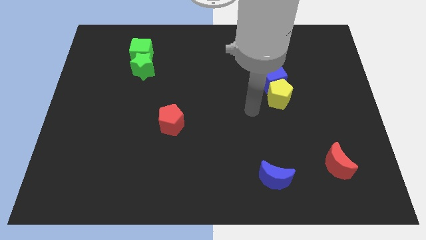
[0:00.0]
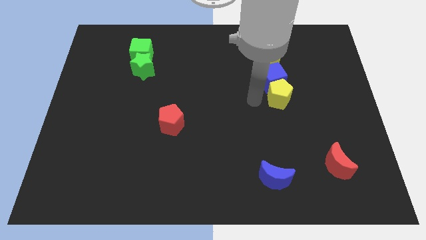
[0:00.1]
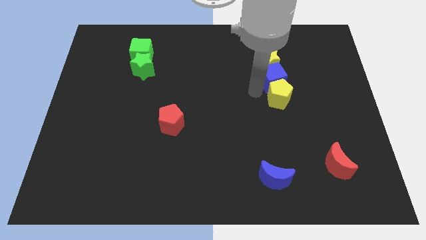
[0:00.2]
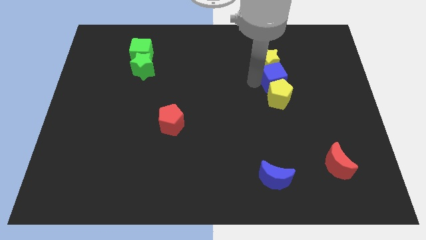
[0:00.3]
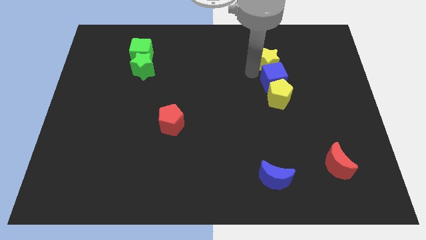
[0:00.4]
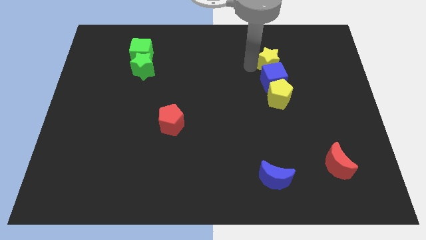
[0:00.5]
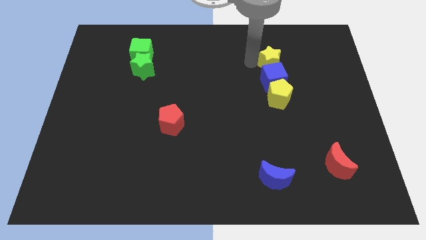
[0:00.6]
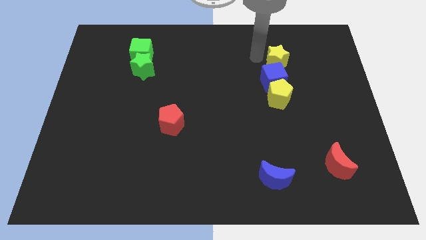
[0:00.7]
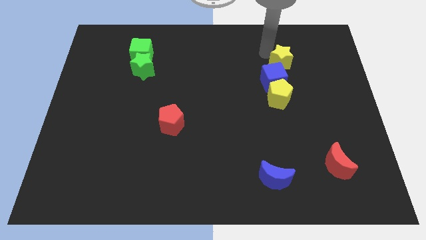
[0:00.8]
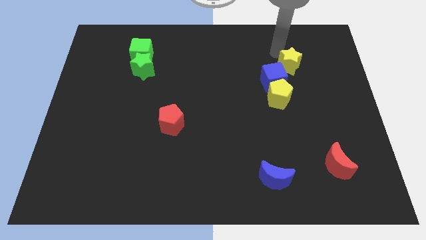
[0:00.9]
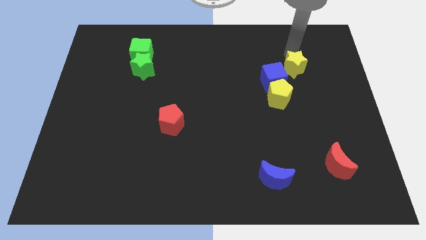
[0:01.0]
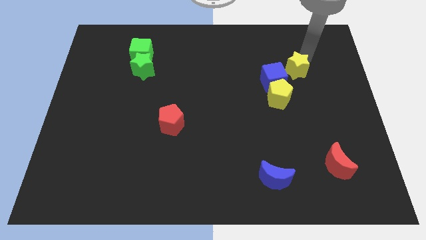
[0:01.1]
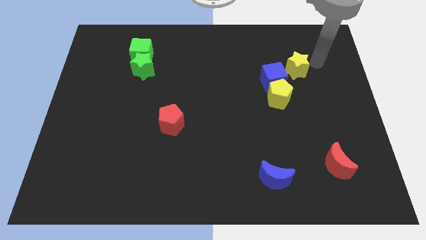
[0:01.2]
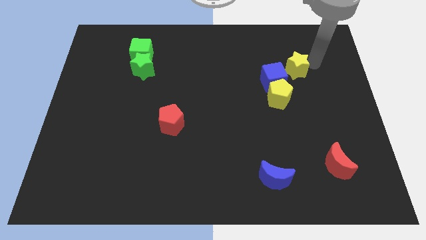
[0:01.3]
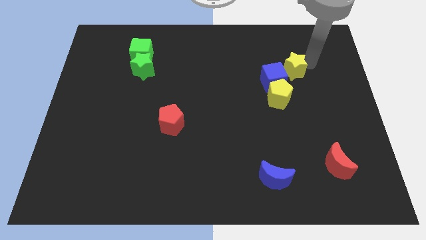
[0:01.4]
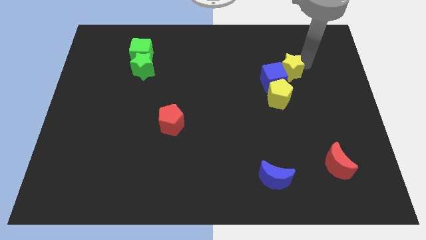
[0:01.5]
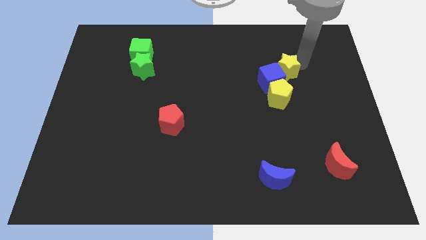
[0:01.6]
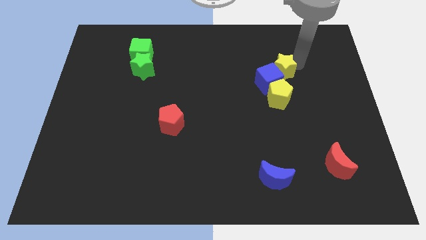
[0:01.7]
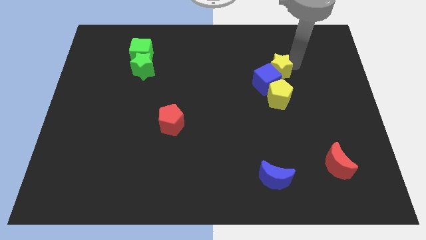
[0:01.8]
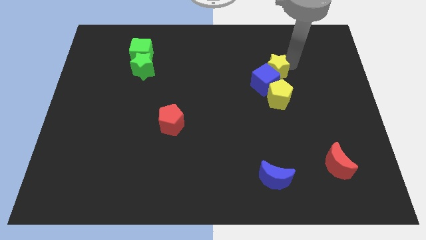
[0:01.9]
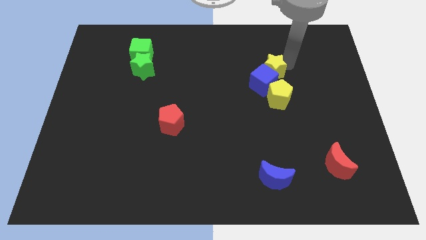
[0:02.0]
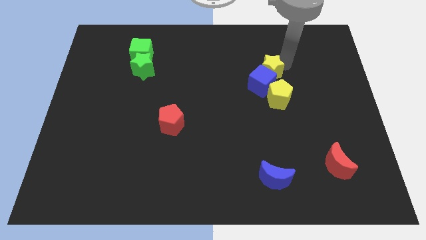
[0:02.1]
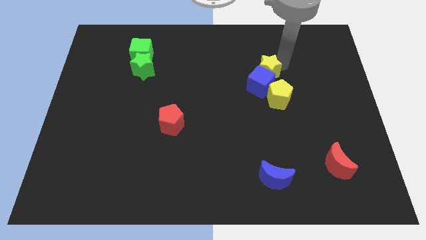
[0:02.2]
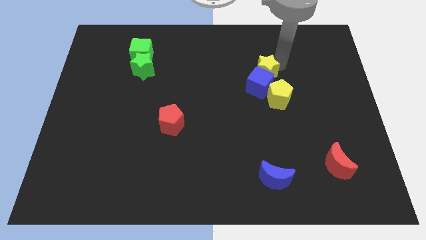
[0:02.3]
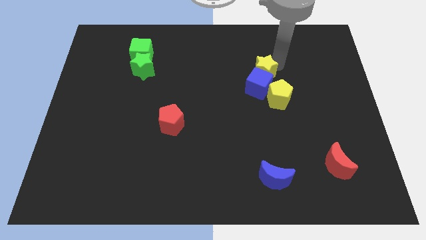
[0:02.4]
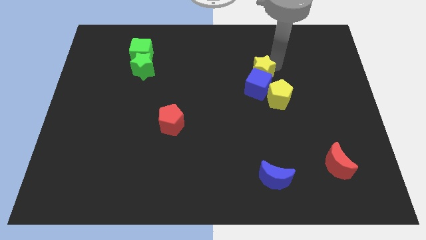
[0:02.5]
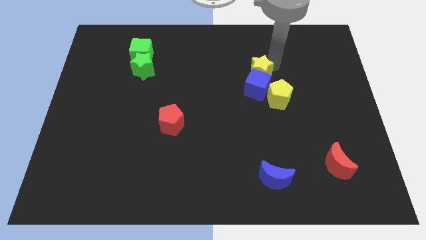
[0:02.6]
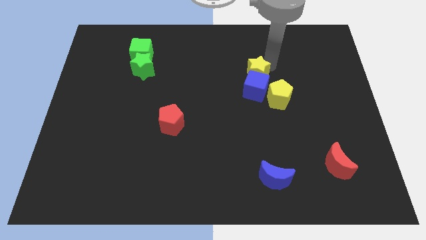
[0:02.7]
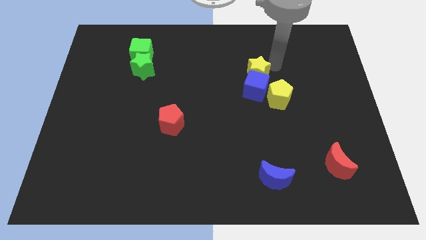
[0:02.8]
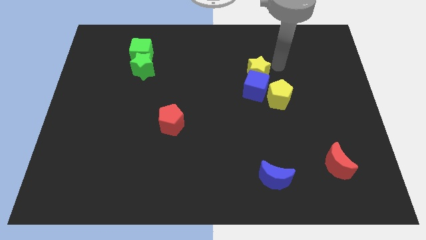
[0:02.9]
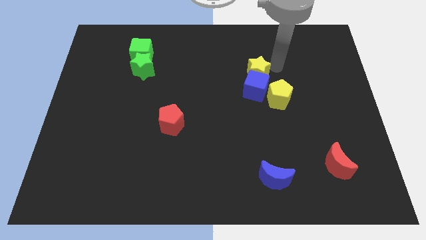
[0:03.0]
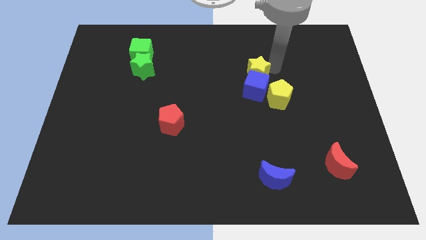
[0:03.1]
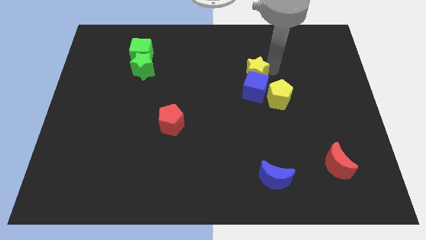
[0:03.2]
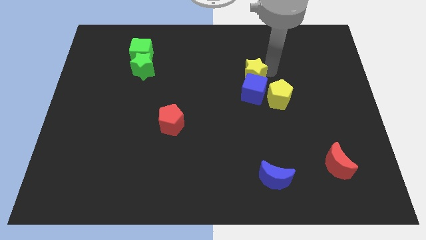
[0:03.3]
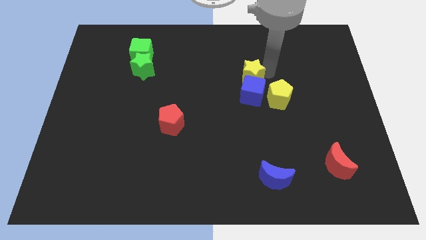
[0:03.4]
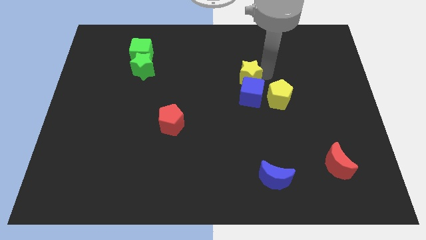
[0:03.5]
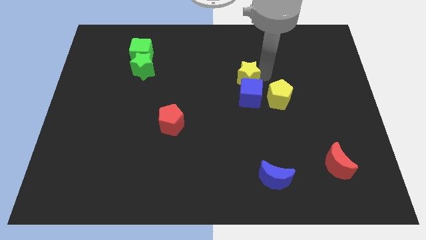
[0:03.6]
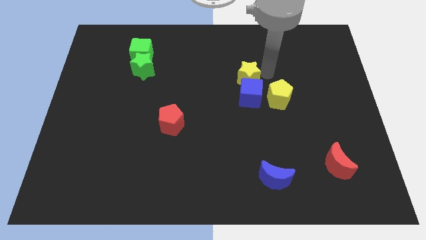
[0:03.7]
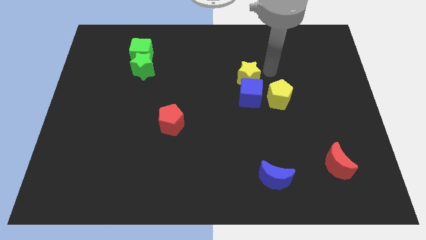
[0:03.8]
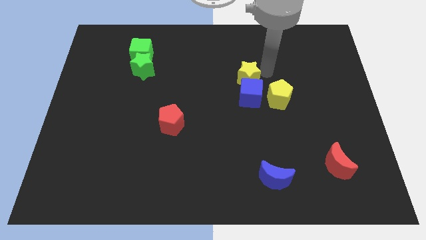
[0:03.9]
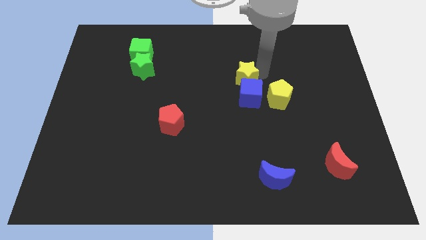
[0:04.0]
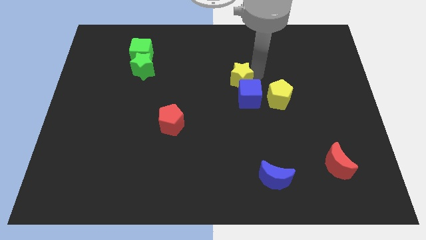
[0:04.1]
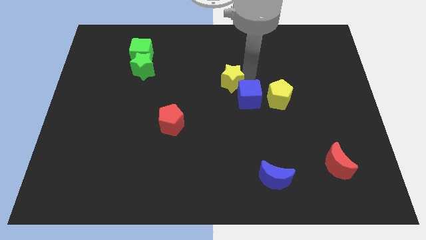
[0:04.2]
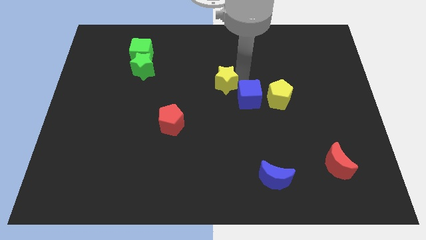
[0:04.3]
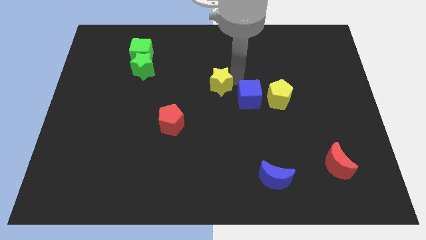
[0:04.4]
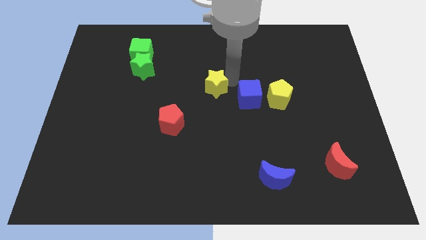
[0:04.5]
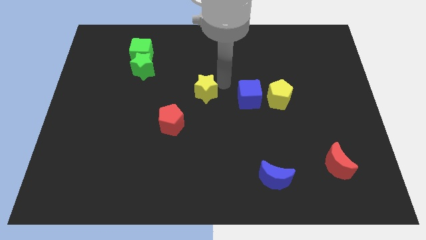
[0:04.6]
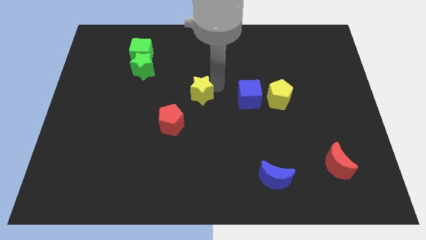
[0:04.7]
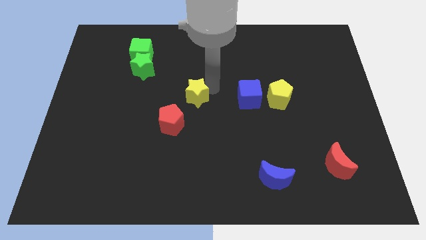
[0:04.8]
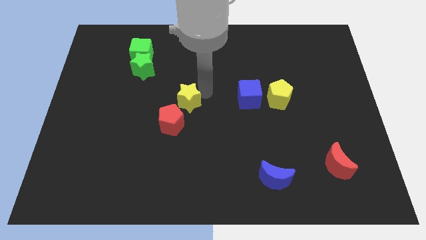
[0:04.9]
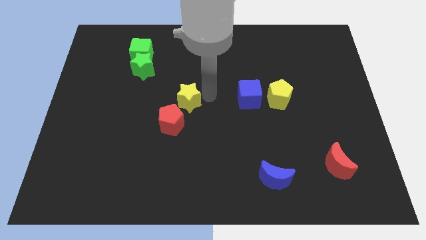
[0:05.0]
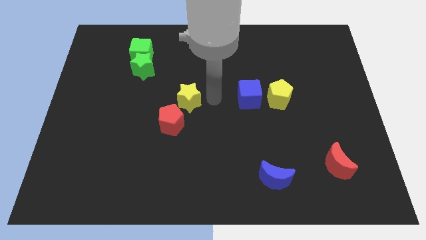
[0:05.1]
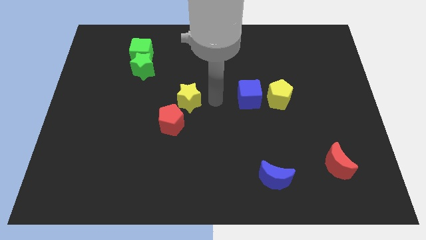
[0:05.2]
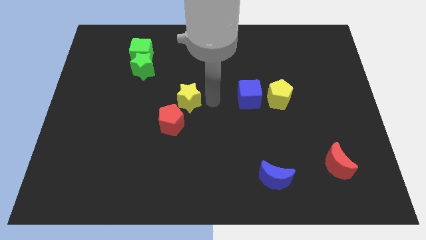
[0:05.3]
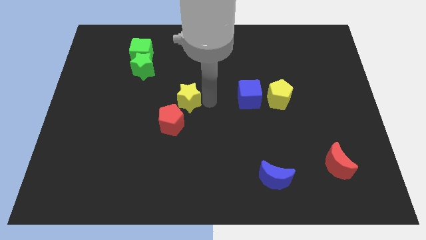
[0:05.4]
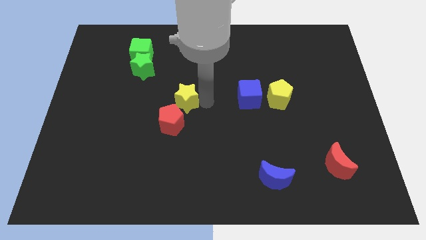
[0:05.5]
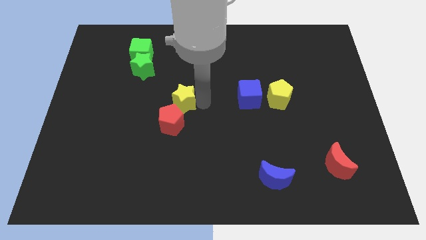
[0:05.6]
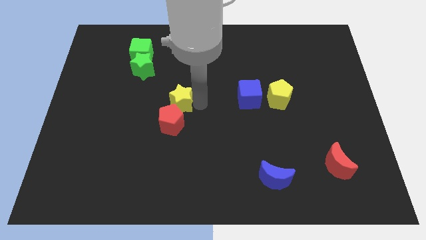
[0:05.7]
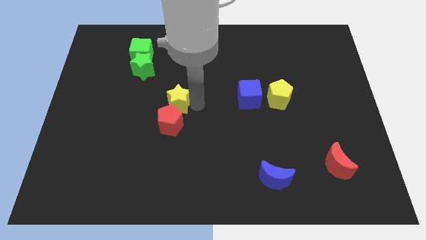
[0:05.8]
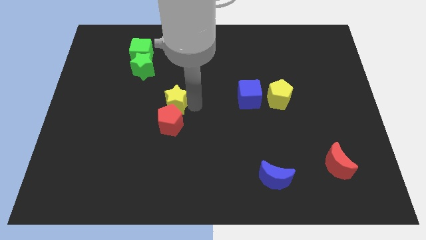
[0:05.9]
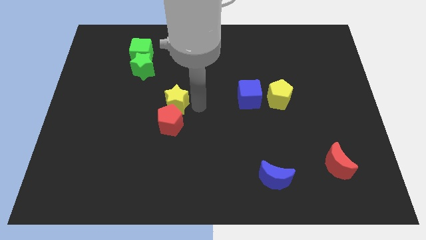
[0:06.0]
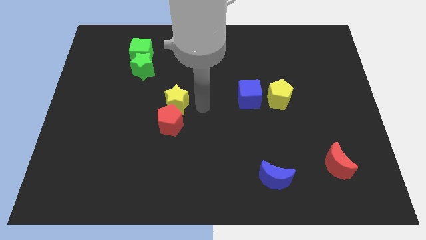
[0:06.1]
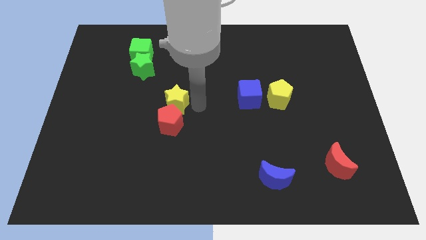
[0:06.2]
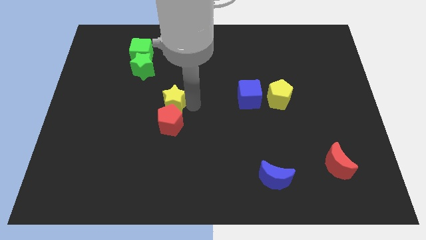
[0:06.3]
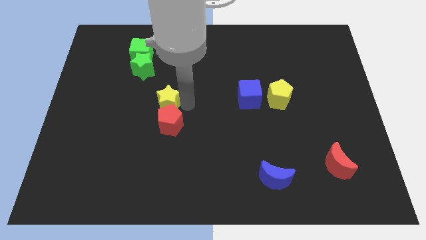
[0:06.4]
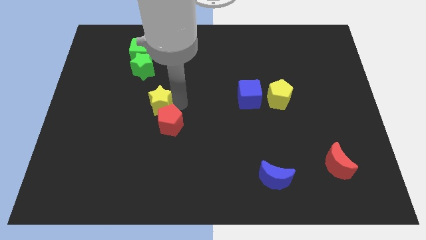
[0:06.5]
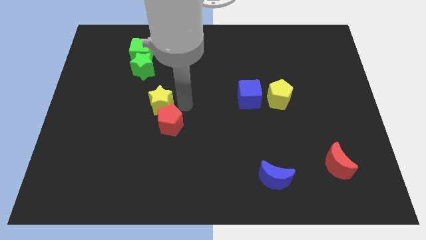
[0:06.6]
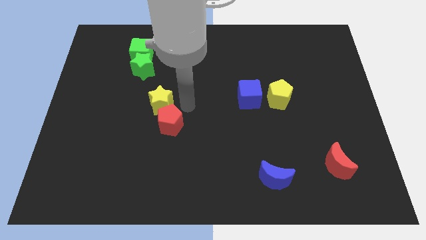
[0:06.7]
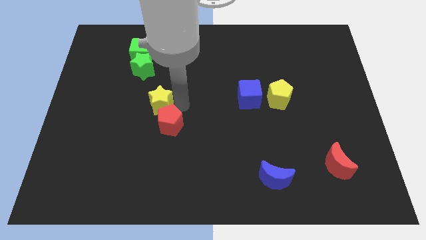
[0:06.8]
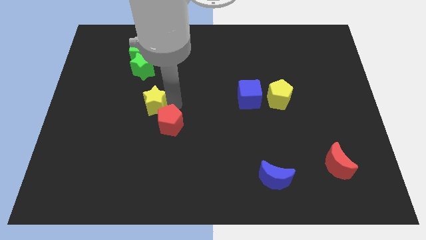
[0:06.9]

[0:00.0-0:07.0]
slide the yellow star to the bottom of the green star
